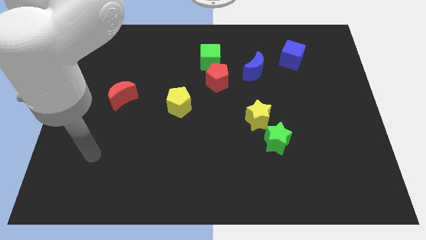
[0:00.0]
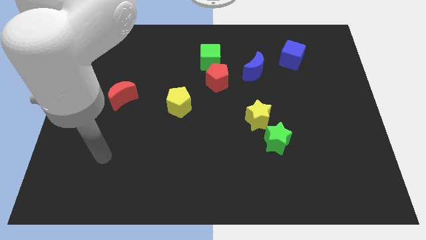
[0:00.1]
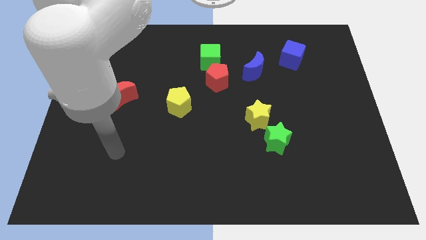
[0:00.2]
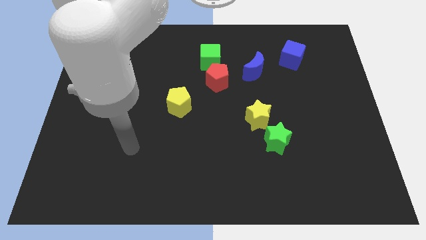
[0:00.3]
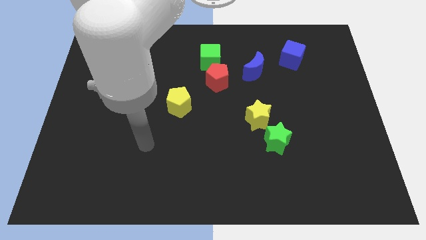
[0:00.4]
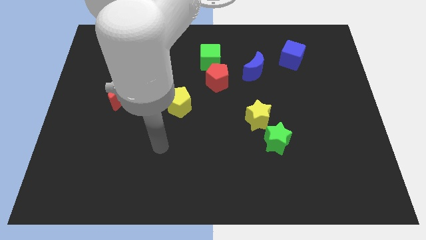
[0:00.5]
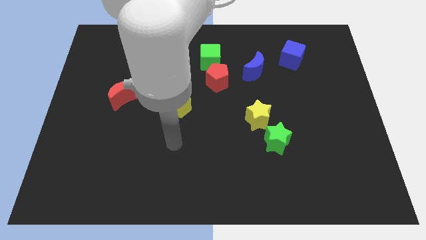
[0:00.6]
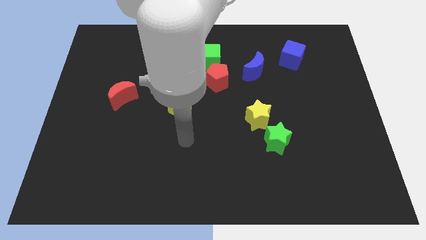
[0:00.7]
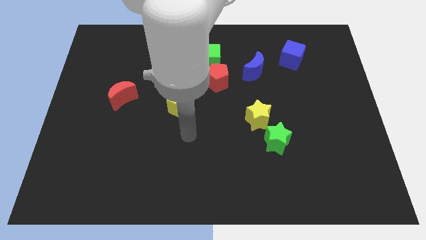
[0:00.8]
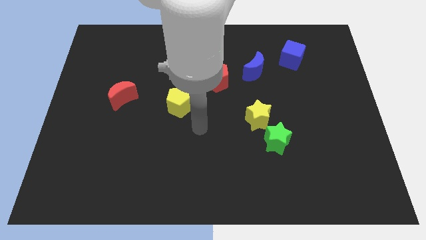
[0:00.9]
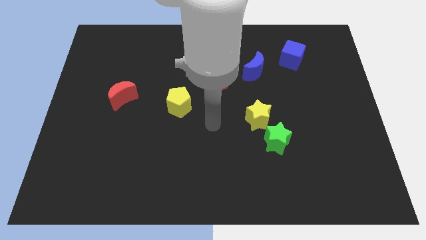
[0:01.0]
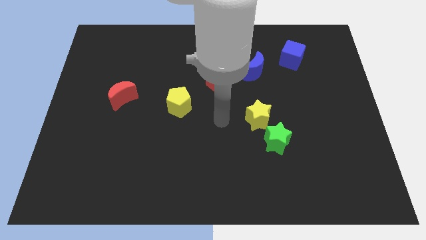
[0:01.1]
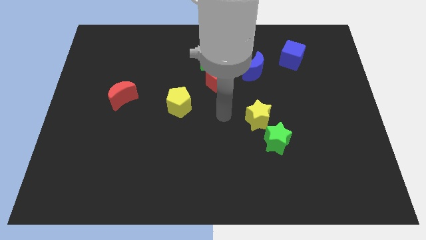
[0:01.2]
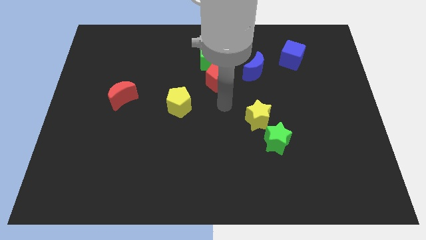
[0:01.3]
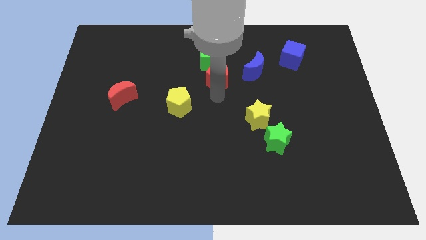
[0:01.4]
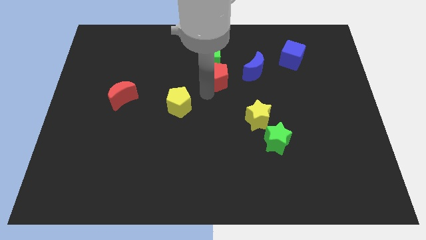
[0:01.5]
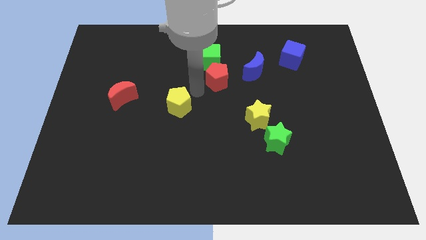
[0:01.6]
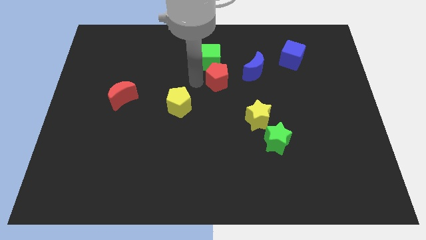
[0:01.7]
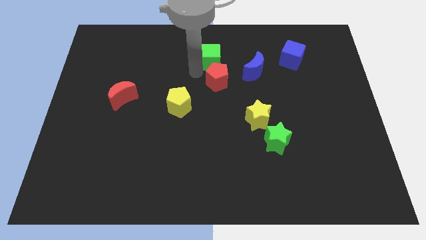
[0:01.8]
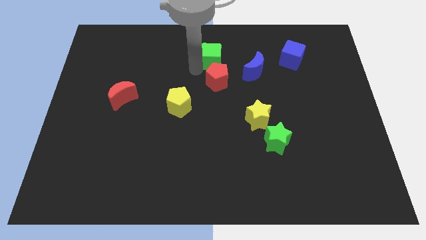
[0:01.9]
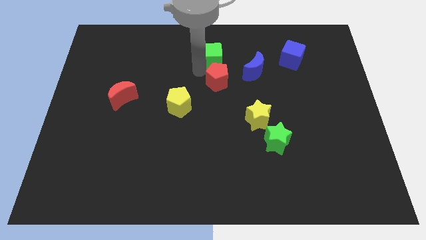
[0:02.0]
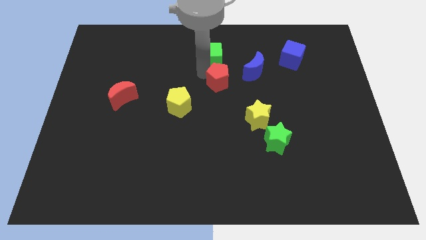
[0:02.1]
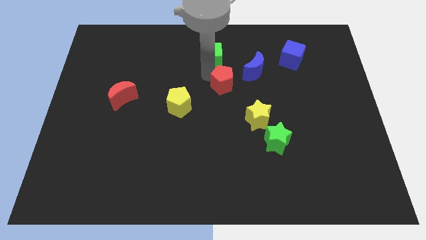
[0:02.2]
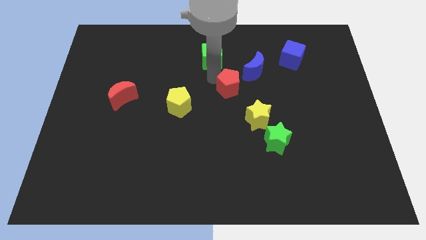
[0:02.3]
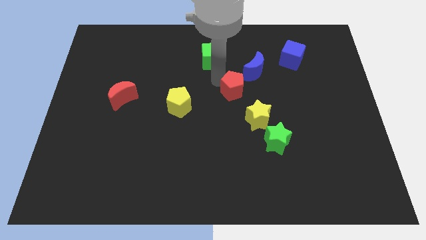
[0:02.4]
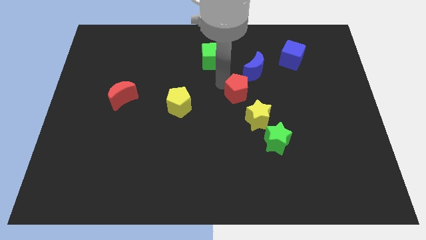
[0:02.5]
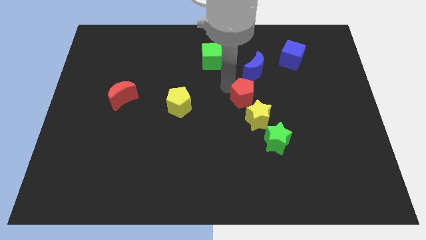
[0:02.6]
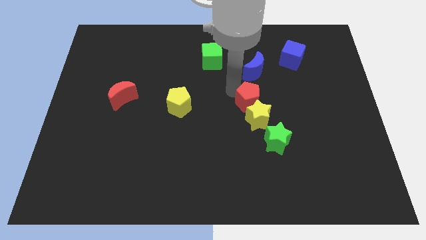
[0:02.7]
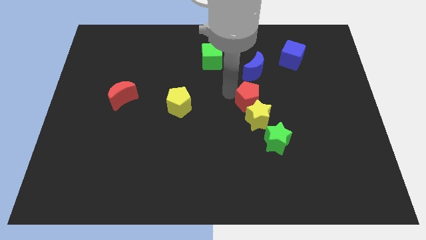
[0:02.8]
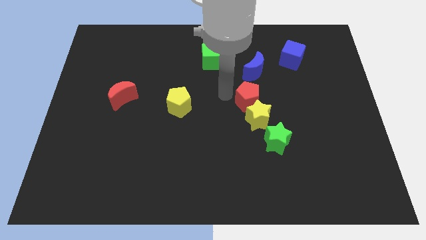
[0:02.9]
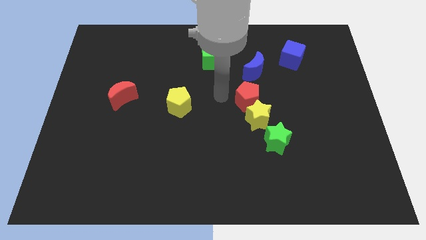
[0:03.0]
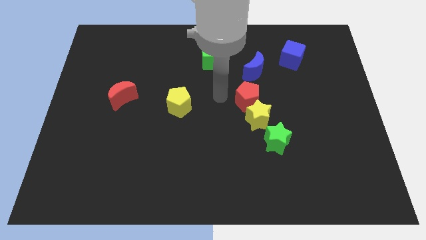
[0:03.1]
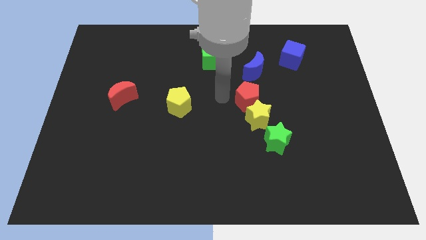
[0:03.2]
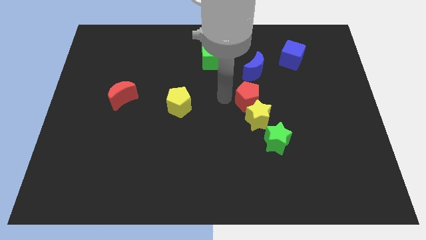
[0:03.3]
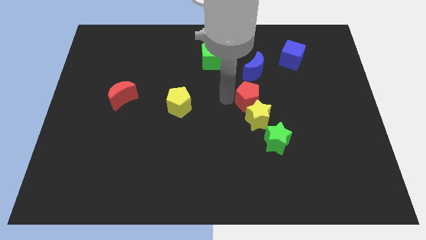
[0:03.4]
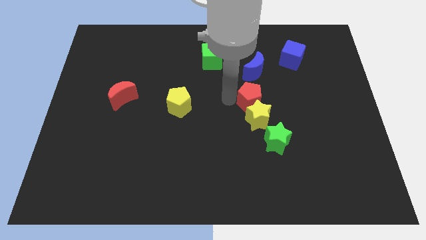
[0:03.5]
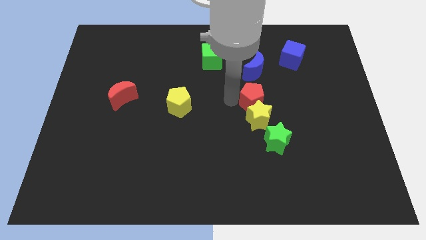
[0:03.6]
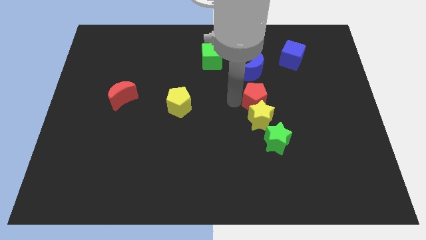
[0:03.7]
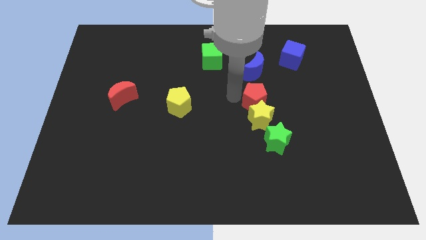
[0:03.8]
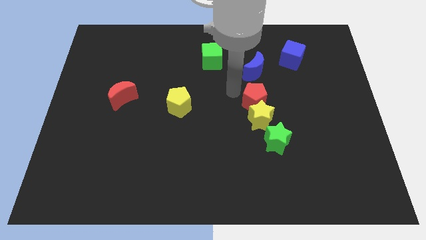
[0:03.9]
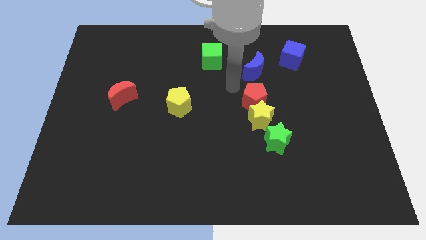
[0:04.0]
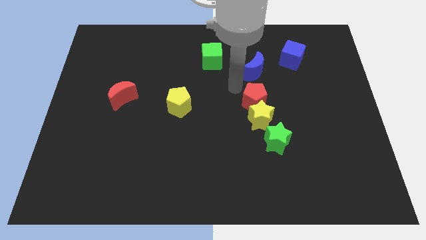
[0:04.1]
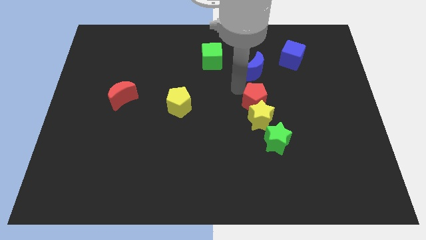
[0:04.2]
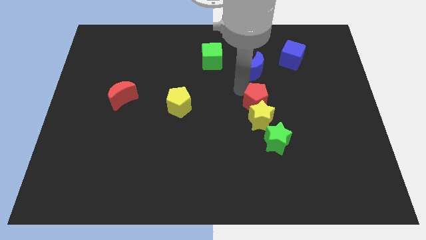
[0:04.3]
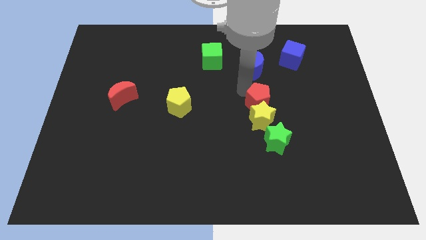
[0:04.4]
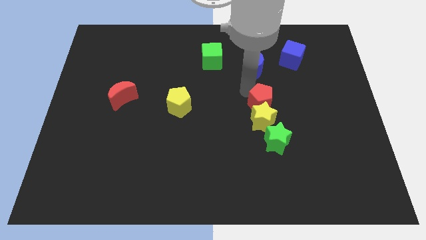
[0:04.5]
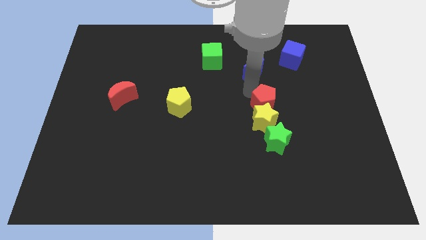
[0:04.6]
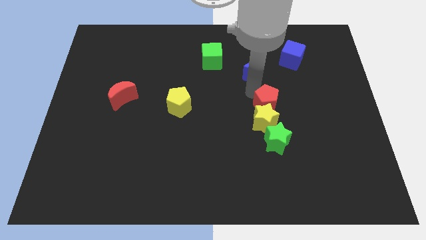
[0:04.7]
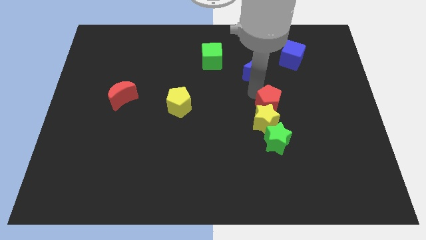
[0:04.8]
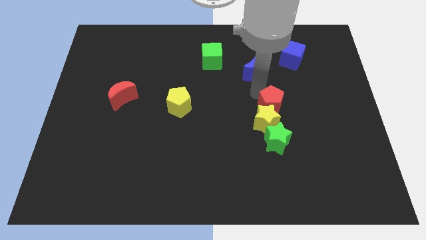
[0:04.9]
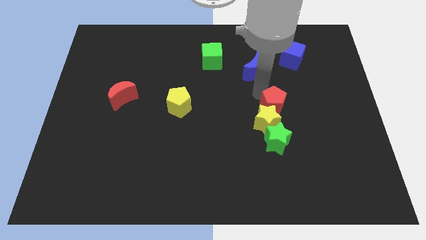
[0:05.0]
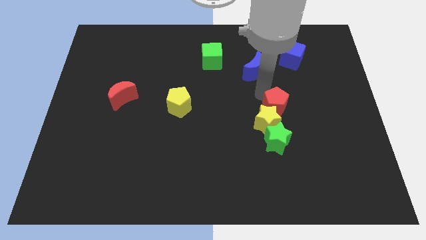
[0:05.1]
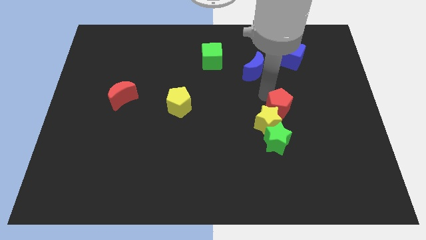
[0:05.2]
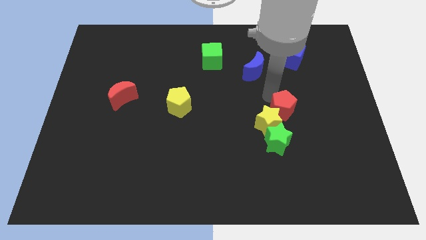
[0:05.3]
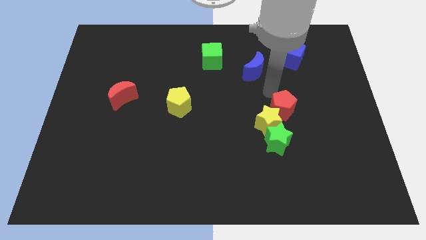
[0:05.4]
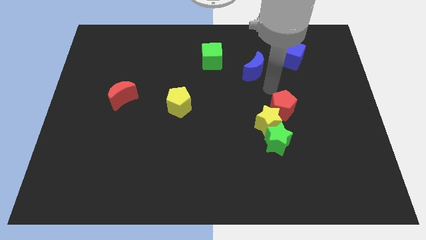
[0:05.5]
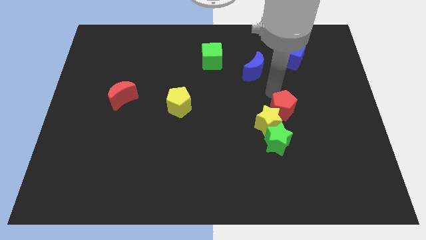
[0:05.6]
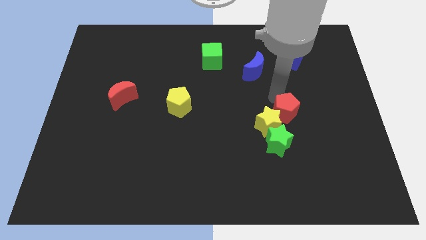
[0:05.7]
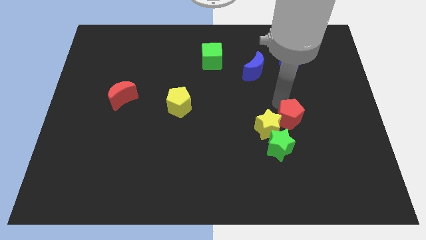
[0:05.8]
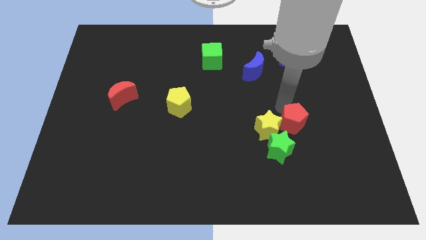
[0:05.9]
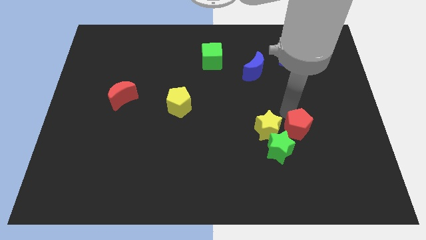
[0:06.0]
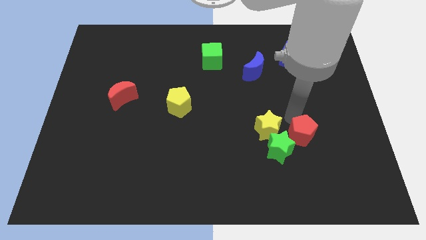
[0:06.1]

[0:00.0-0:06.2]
push the red pentagon to the bottom right of the yellow star
